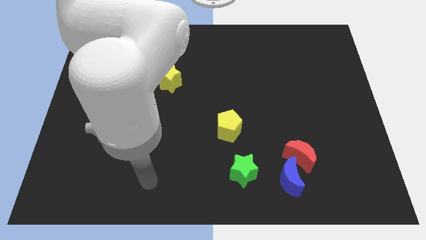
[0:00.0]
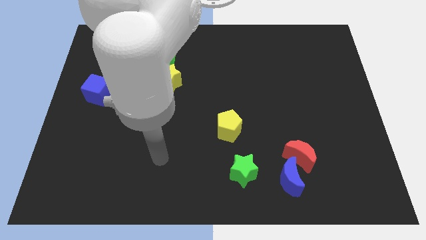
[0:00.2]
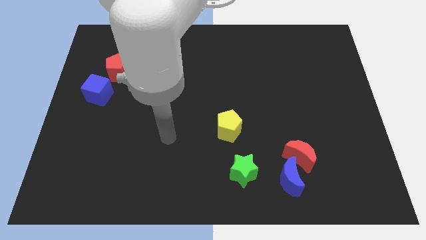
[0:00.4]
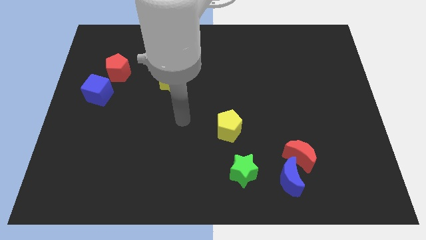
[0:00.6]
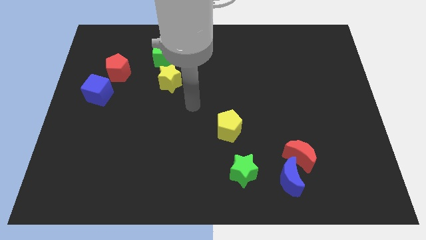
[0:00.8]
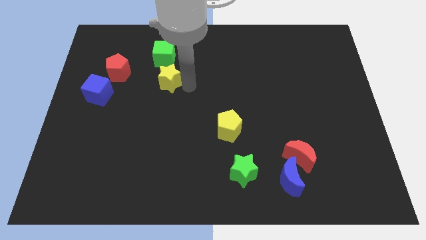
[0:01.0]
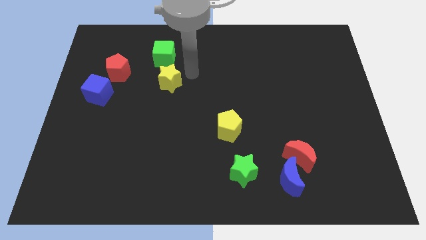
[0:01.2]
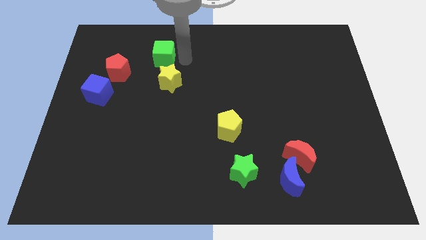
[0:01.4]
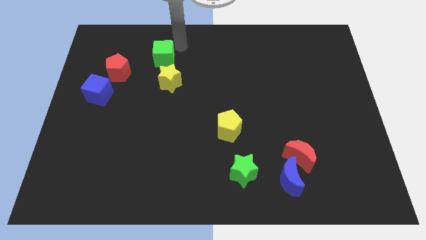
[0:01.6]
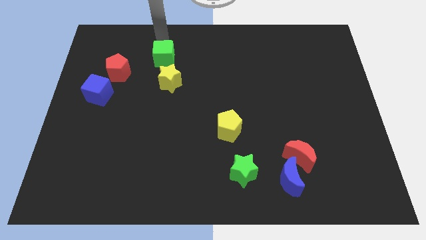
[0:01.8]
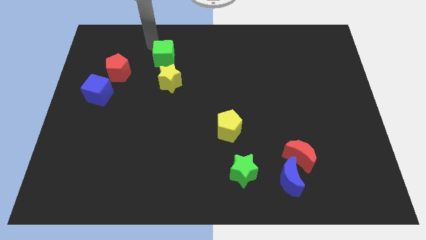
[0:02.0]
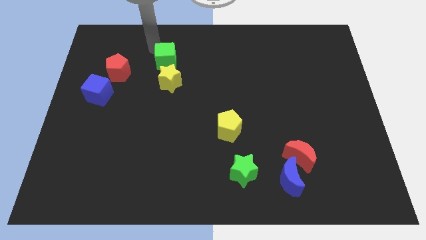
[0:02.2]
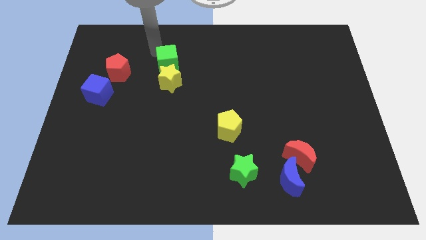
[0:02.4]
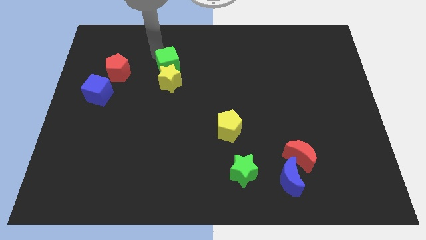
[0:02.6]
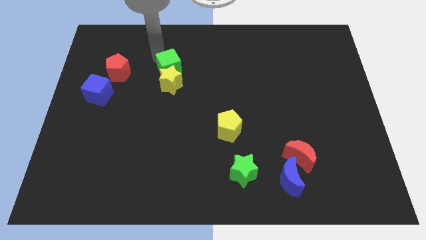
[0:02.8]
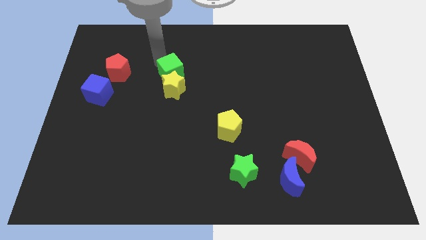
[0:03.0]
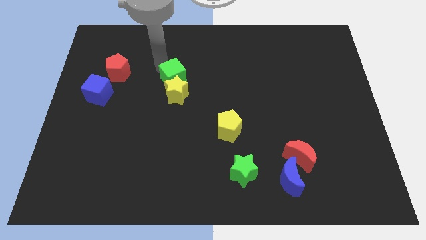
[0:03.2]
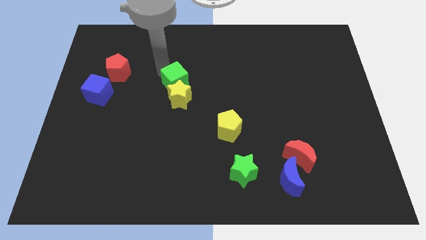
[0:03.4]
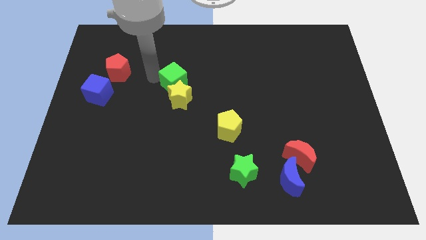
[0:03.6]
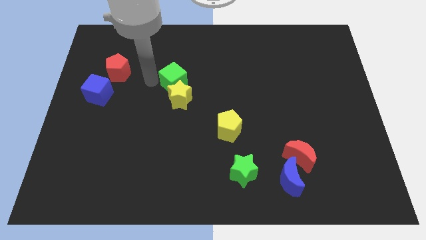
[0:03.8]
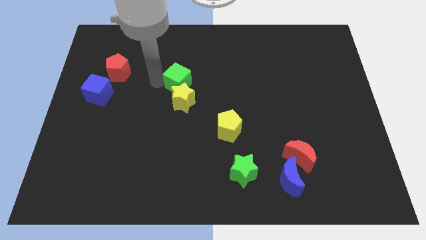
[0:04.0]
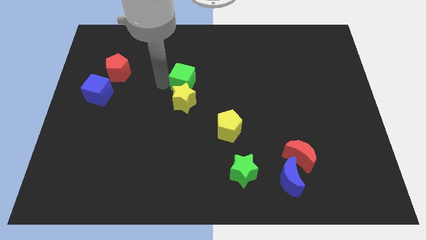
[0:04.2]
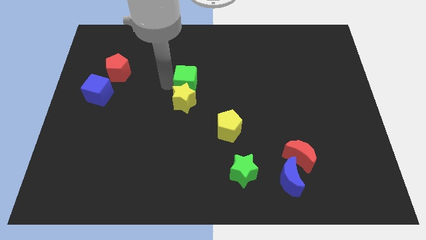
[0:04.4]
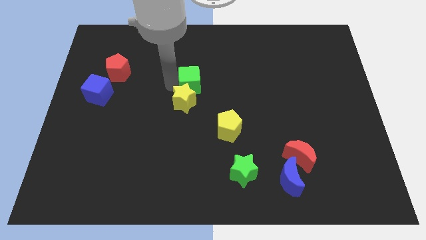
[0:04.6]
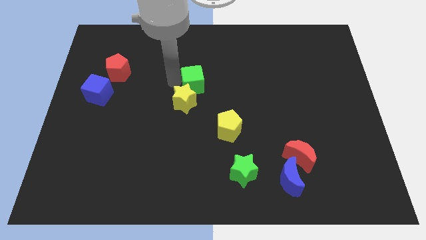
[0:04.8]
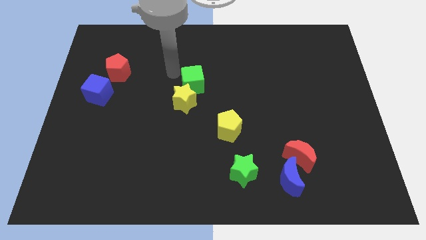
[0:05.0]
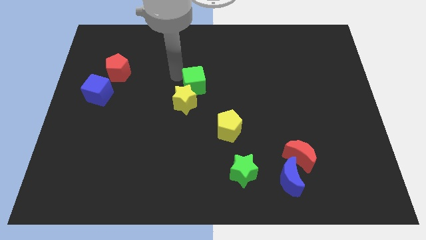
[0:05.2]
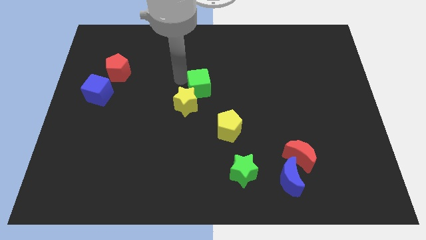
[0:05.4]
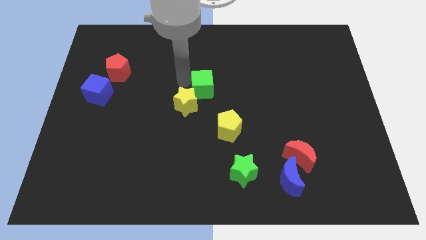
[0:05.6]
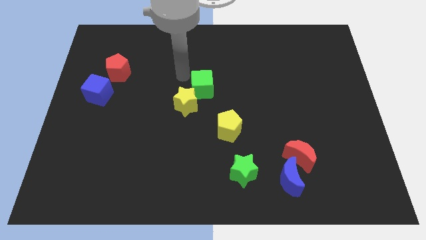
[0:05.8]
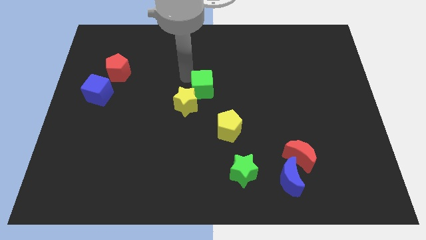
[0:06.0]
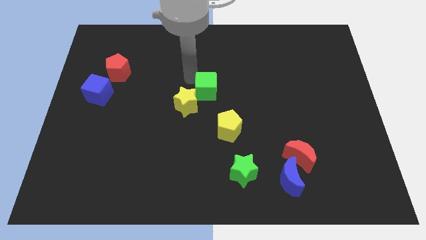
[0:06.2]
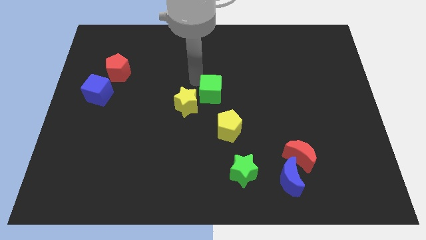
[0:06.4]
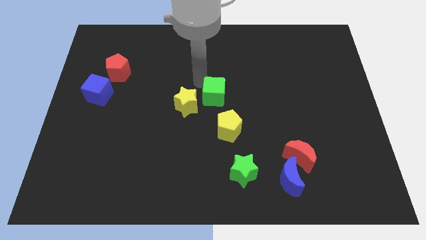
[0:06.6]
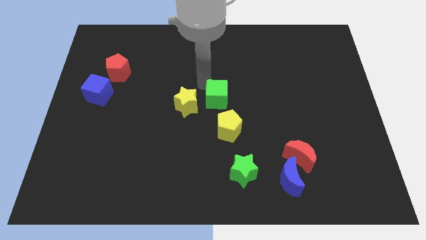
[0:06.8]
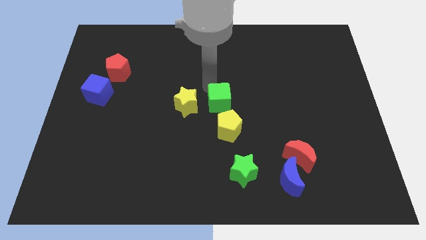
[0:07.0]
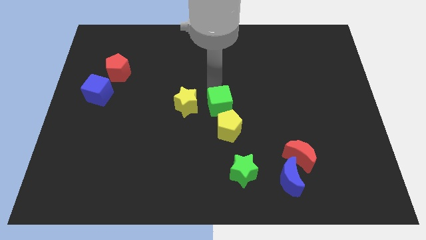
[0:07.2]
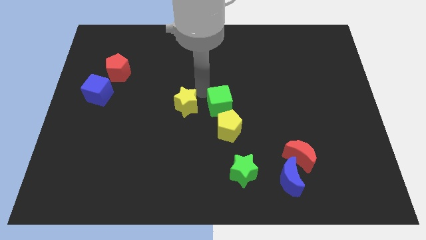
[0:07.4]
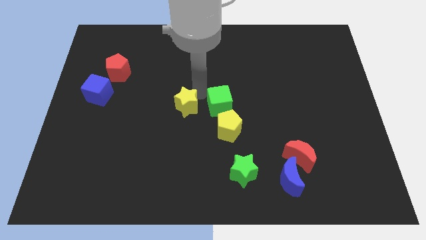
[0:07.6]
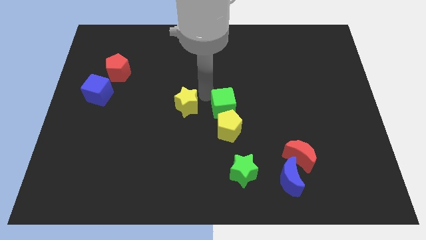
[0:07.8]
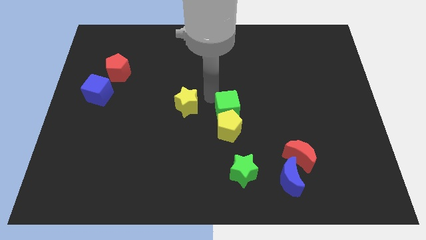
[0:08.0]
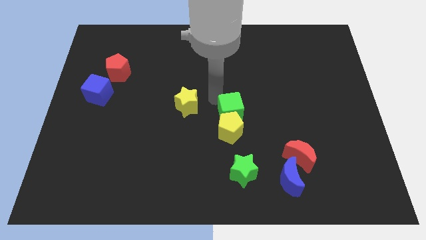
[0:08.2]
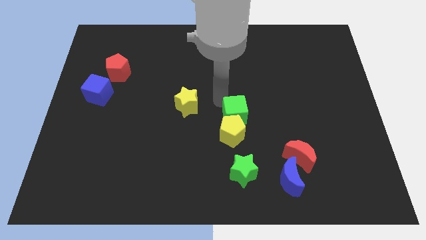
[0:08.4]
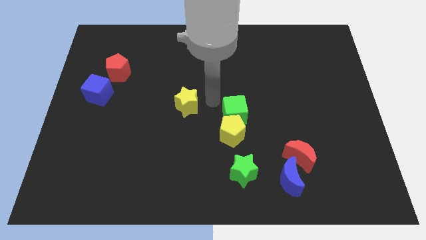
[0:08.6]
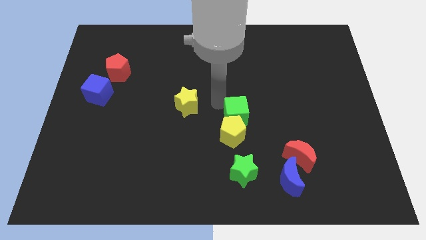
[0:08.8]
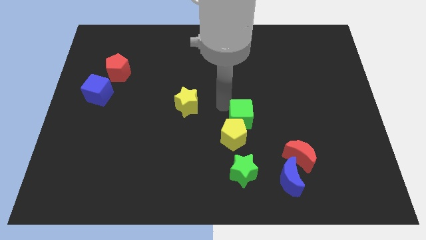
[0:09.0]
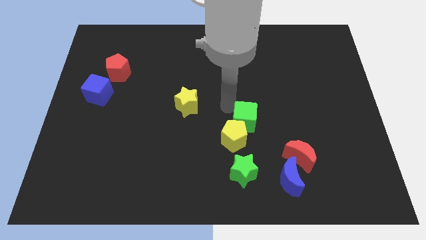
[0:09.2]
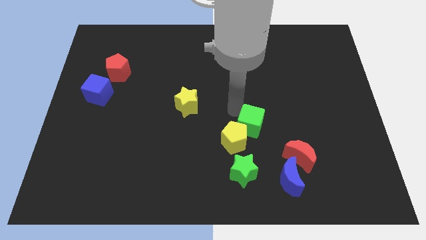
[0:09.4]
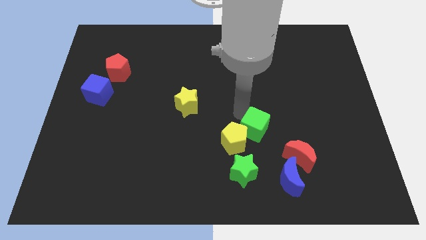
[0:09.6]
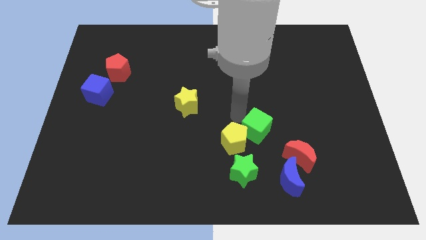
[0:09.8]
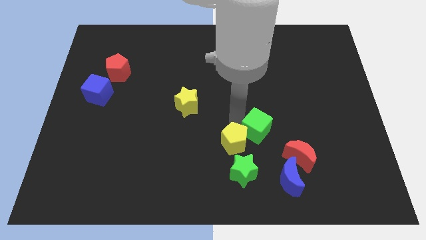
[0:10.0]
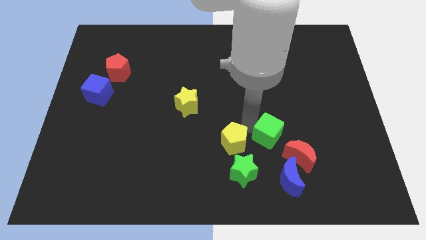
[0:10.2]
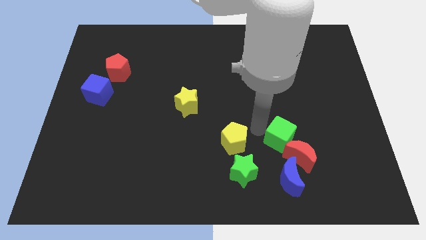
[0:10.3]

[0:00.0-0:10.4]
push the green cube towards the red moon

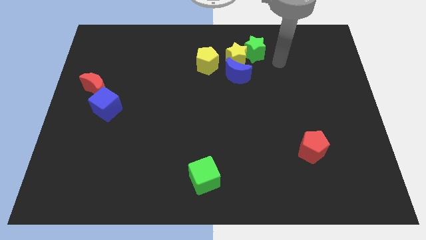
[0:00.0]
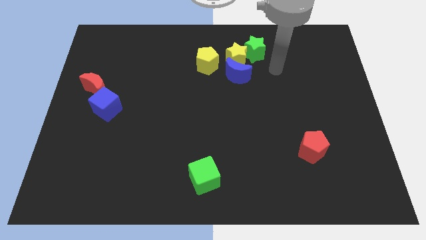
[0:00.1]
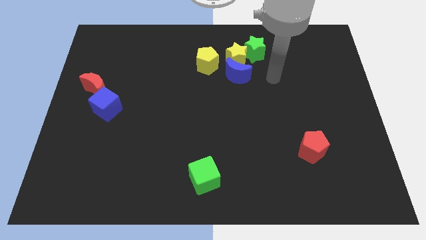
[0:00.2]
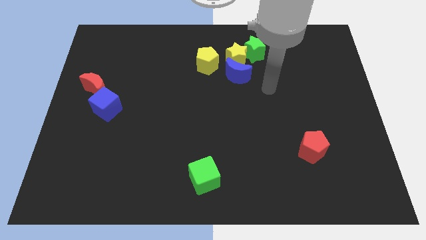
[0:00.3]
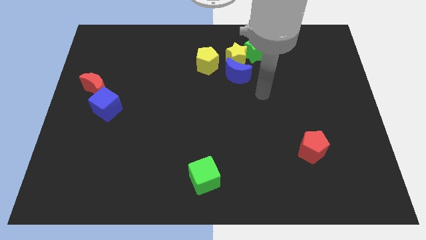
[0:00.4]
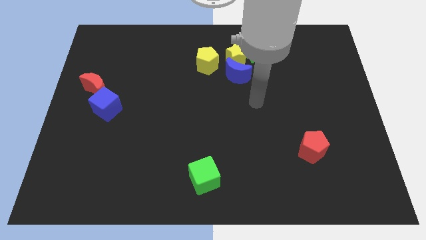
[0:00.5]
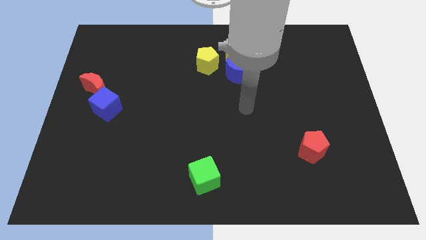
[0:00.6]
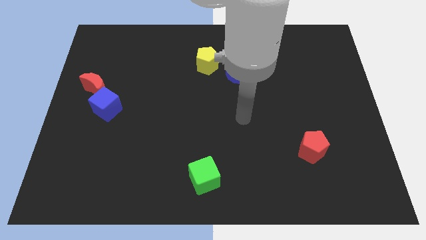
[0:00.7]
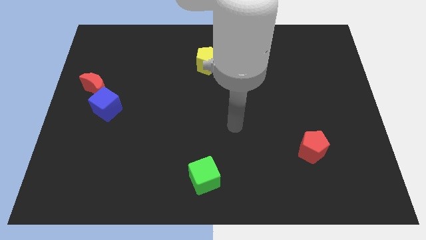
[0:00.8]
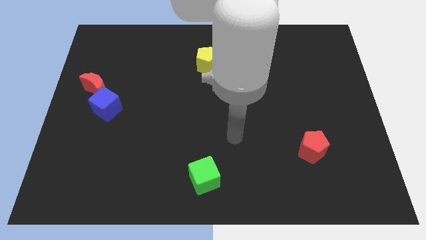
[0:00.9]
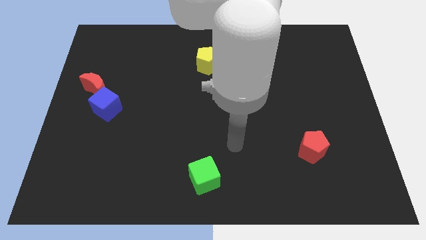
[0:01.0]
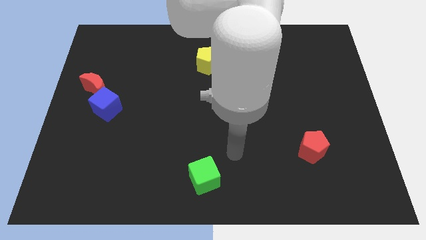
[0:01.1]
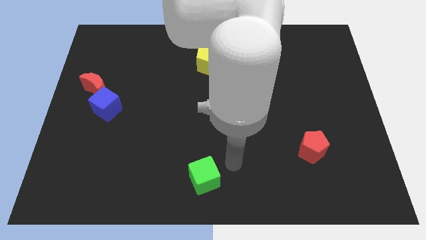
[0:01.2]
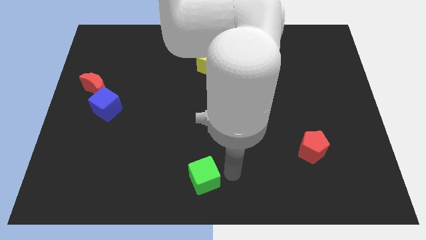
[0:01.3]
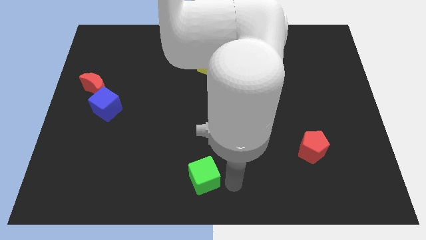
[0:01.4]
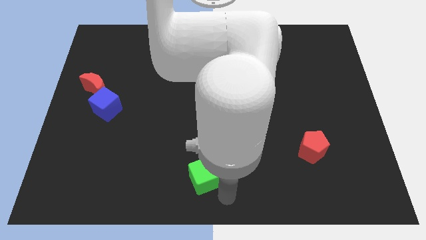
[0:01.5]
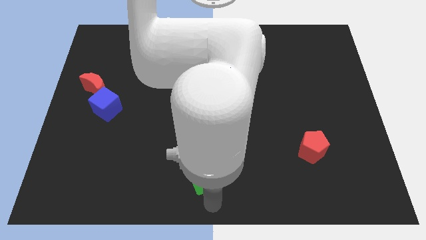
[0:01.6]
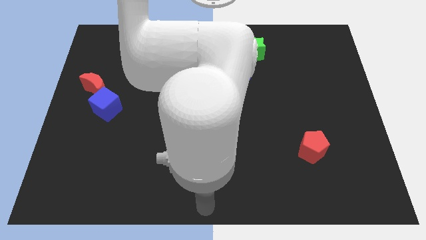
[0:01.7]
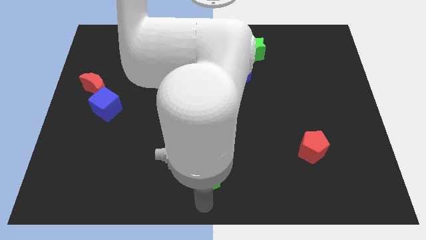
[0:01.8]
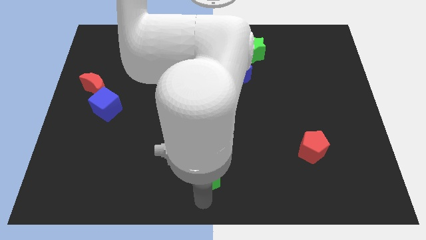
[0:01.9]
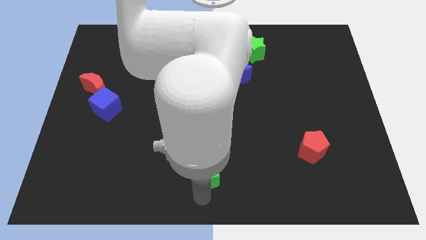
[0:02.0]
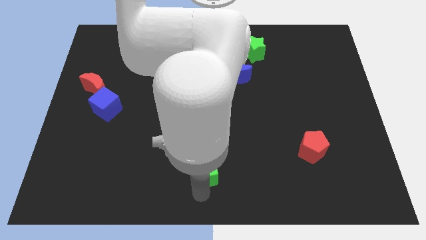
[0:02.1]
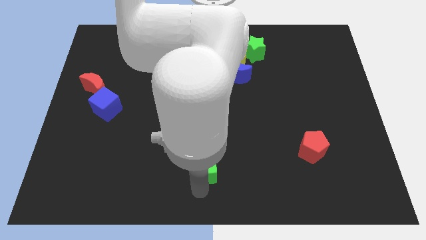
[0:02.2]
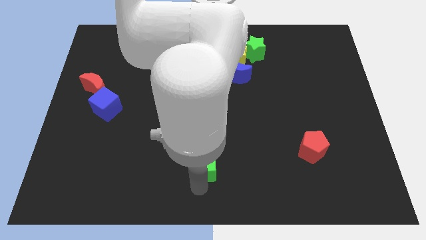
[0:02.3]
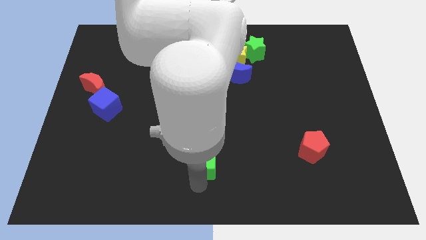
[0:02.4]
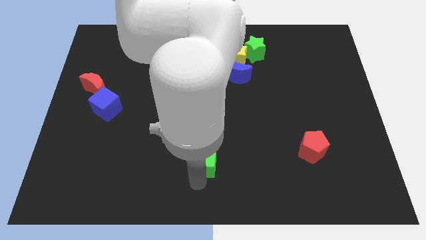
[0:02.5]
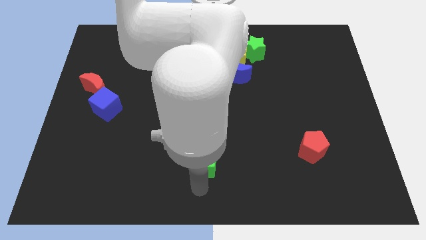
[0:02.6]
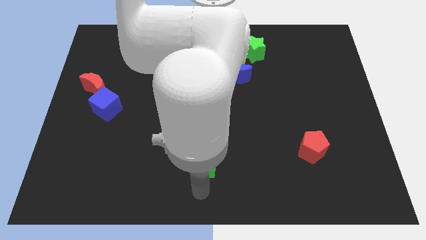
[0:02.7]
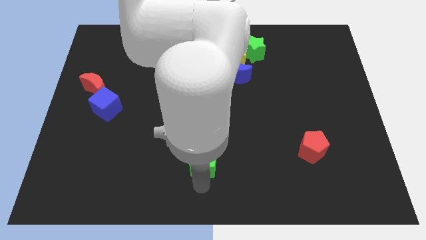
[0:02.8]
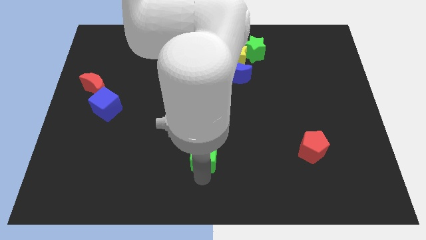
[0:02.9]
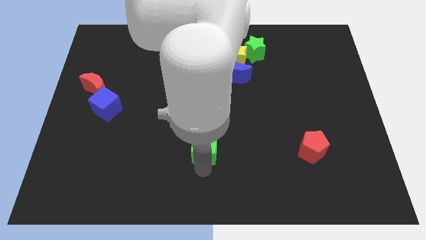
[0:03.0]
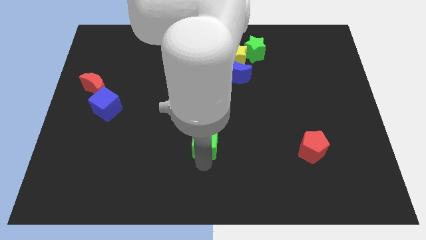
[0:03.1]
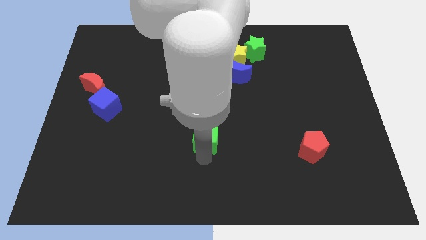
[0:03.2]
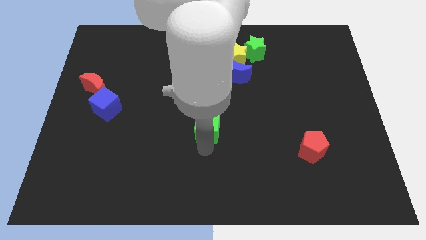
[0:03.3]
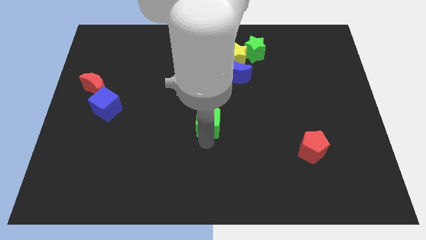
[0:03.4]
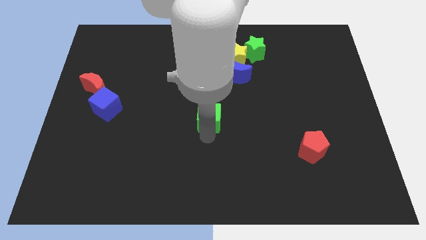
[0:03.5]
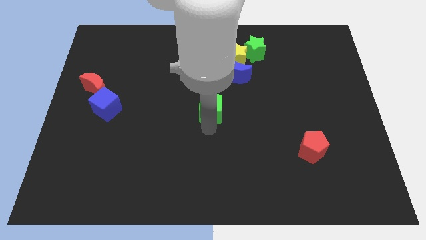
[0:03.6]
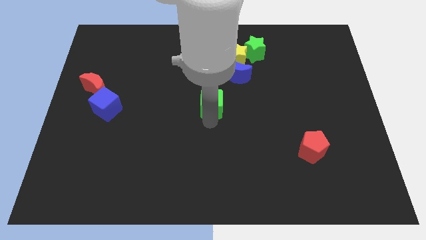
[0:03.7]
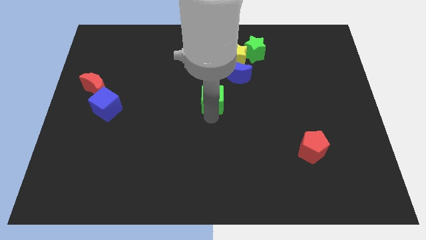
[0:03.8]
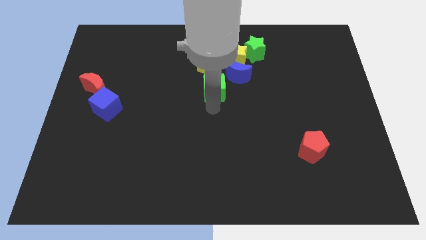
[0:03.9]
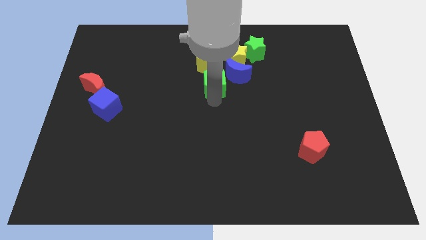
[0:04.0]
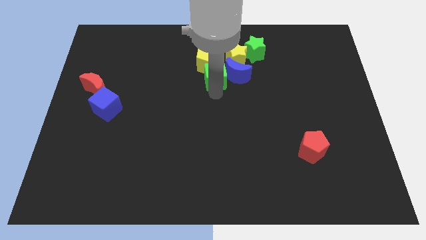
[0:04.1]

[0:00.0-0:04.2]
put the green cube towards the yellow pentagon
